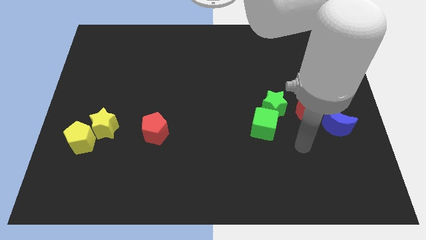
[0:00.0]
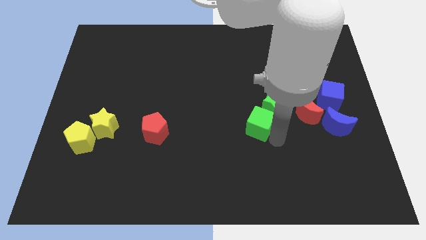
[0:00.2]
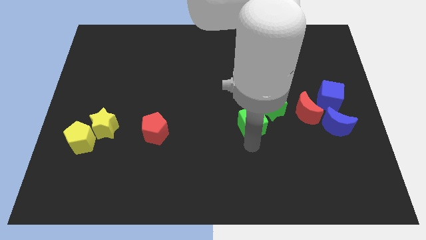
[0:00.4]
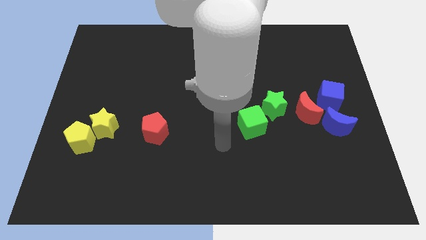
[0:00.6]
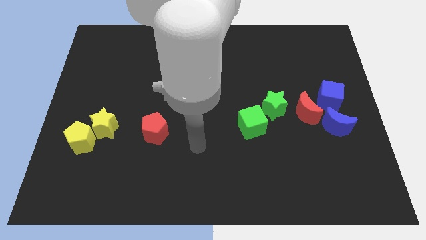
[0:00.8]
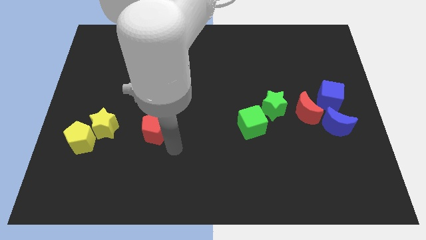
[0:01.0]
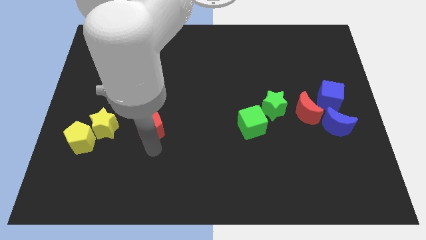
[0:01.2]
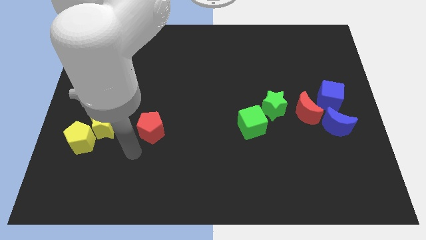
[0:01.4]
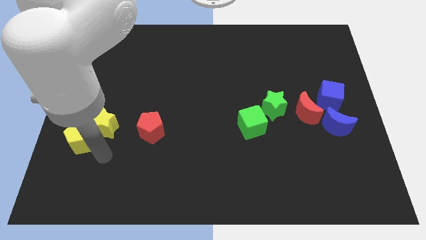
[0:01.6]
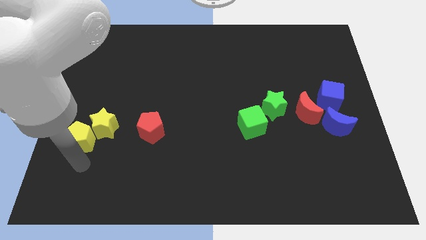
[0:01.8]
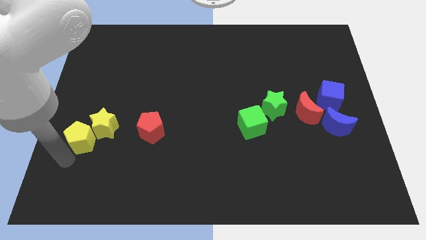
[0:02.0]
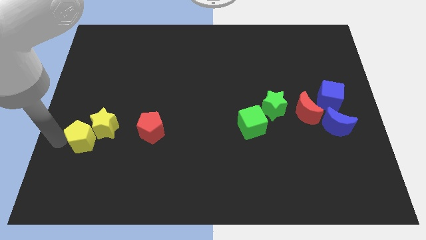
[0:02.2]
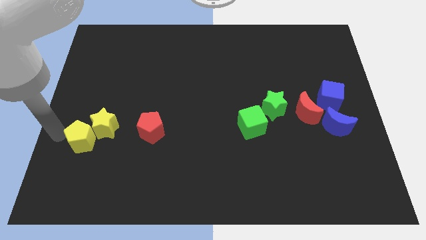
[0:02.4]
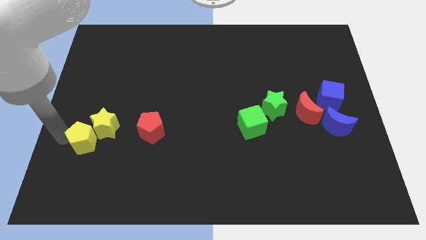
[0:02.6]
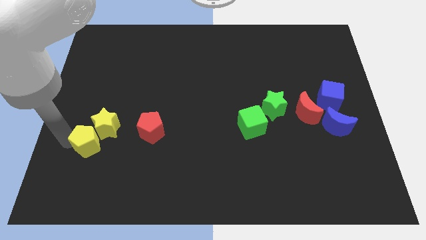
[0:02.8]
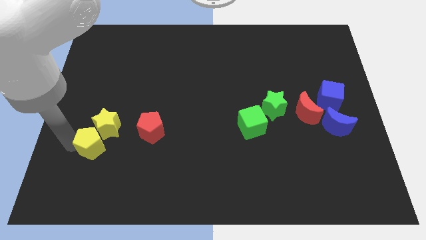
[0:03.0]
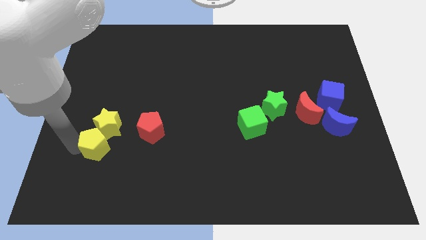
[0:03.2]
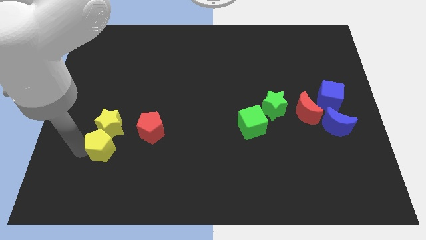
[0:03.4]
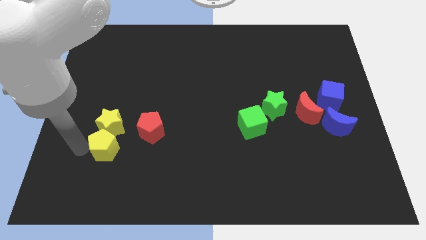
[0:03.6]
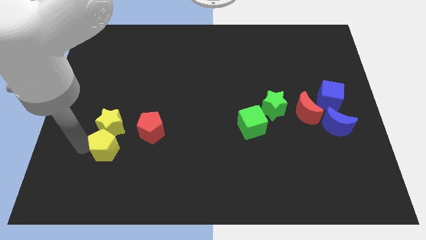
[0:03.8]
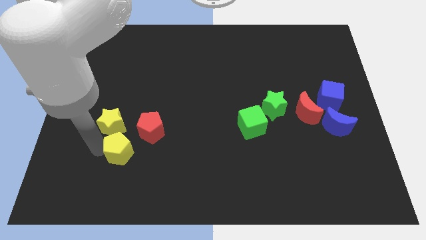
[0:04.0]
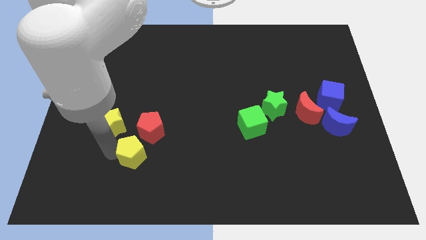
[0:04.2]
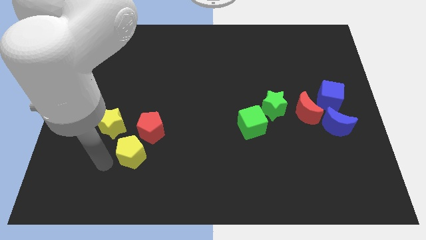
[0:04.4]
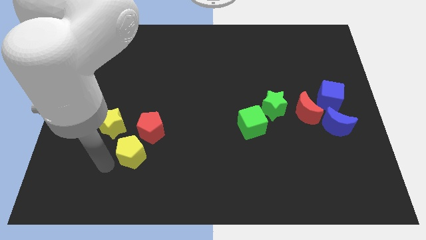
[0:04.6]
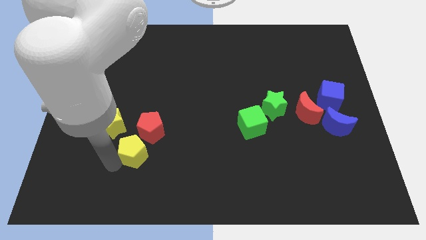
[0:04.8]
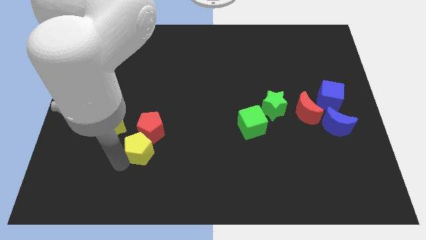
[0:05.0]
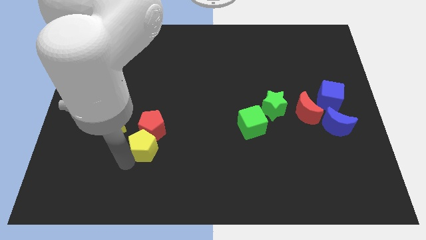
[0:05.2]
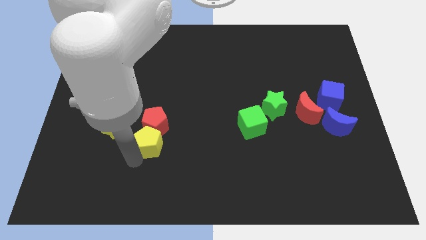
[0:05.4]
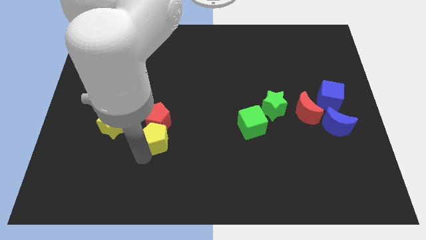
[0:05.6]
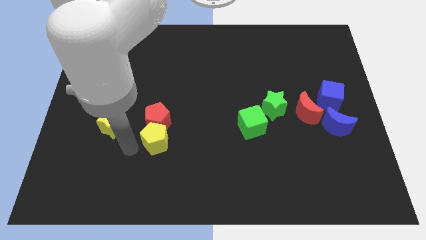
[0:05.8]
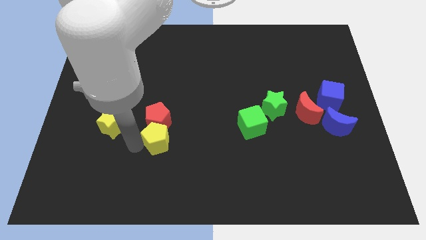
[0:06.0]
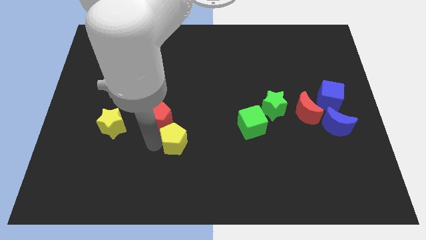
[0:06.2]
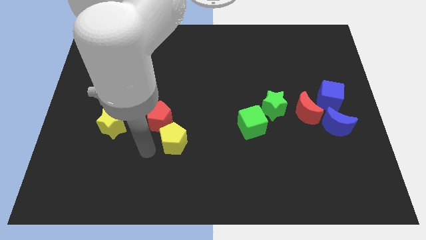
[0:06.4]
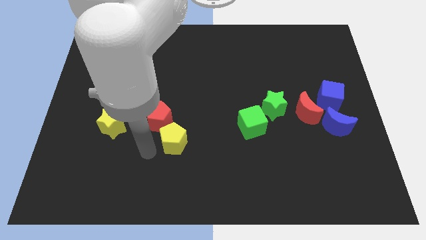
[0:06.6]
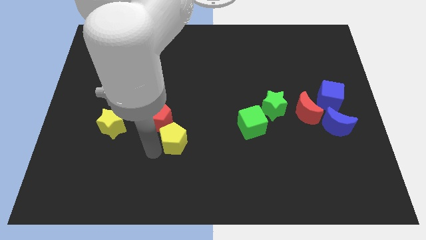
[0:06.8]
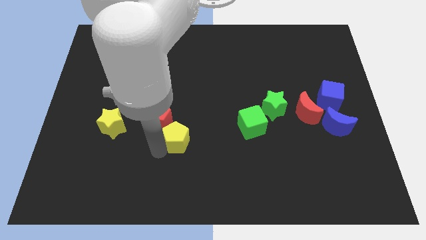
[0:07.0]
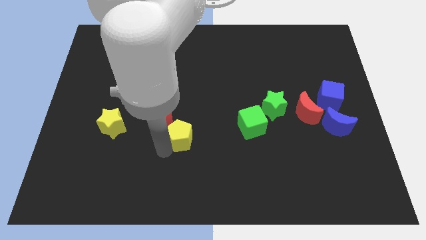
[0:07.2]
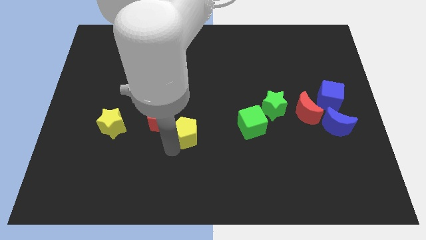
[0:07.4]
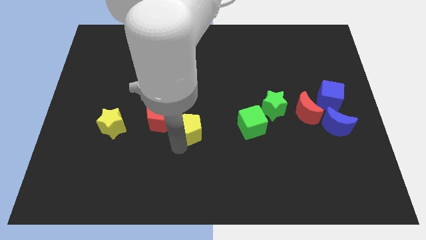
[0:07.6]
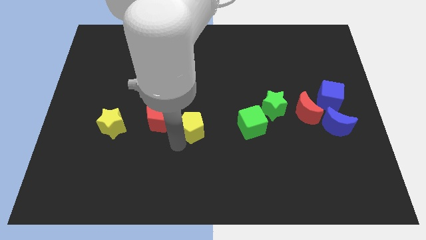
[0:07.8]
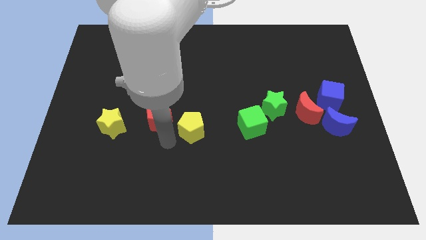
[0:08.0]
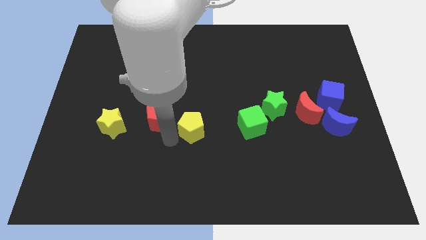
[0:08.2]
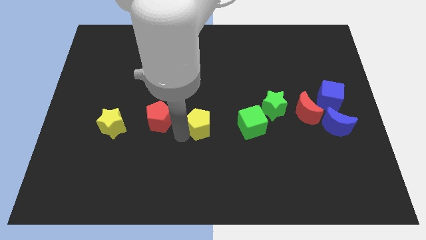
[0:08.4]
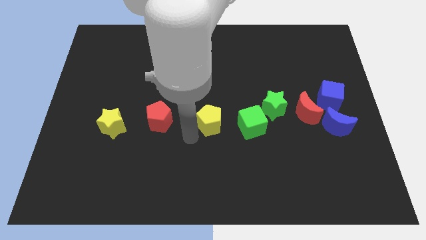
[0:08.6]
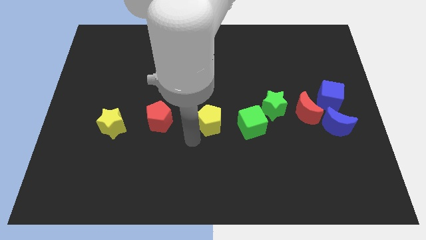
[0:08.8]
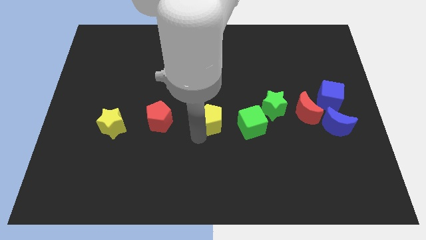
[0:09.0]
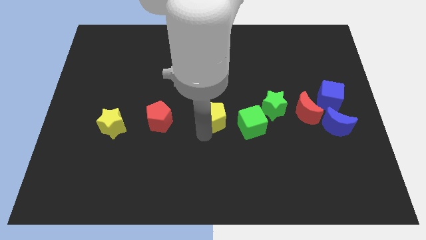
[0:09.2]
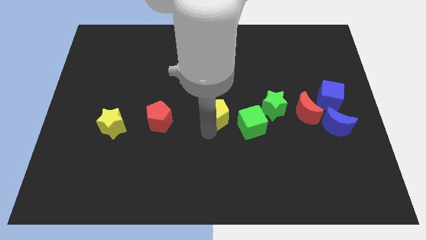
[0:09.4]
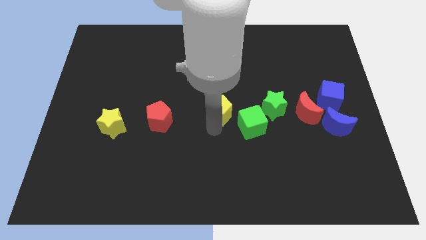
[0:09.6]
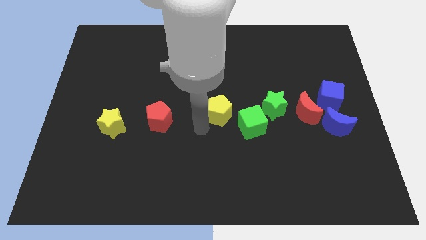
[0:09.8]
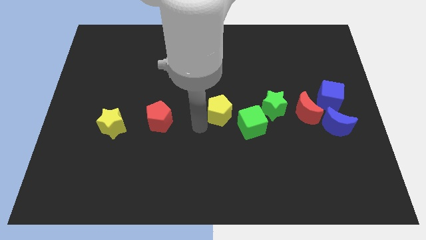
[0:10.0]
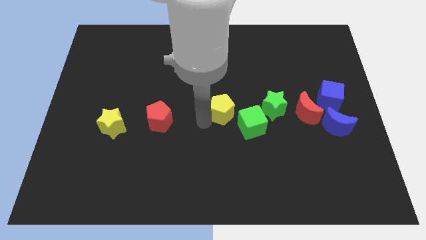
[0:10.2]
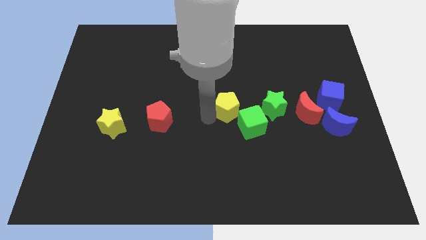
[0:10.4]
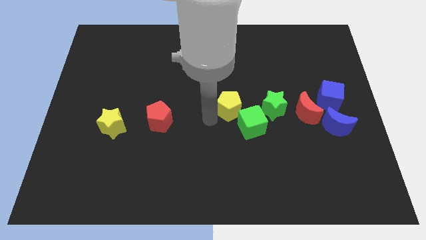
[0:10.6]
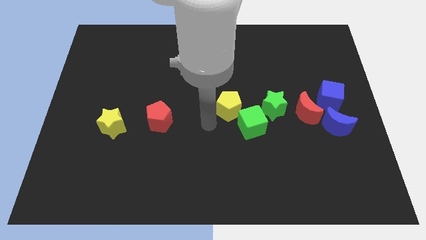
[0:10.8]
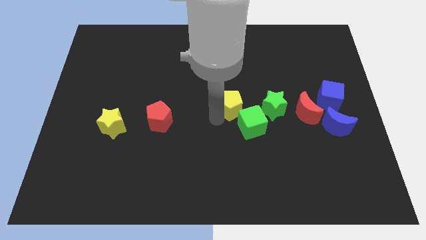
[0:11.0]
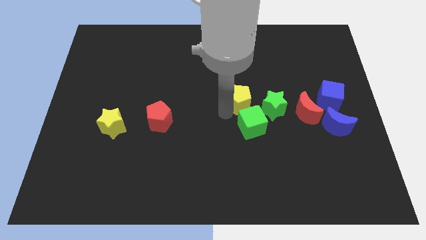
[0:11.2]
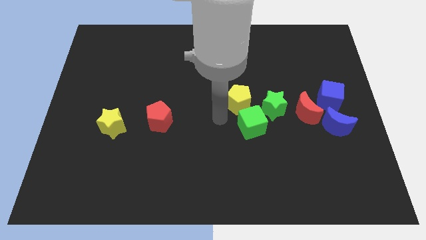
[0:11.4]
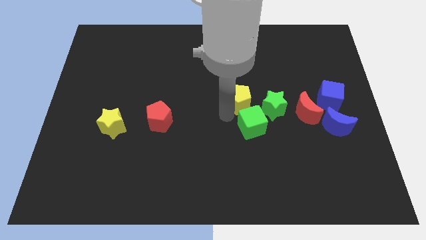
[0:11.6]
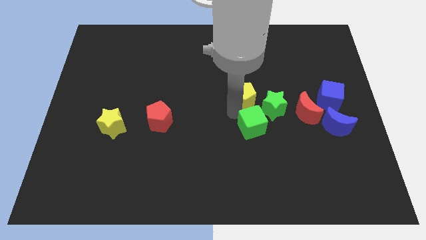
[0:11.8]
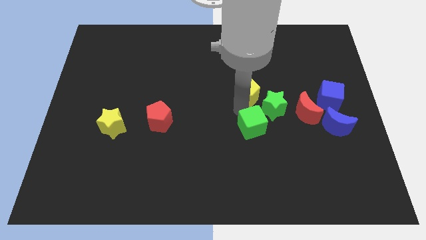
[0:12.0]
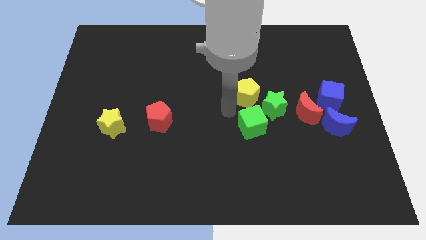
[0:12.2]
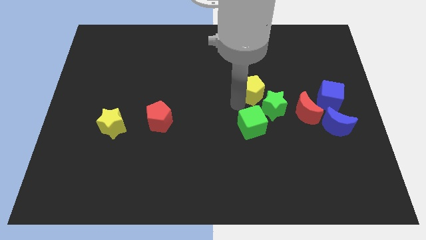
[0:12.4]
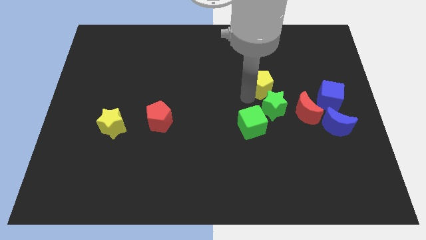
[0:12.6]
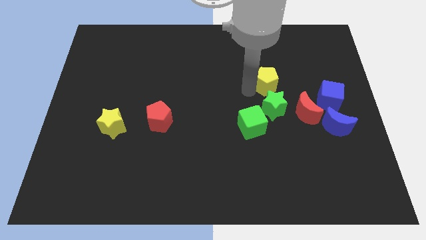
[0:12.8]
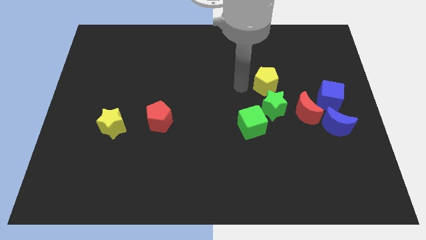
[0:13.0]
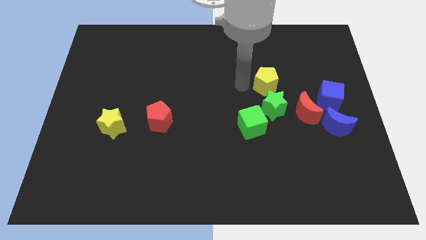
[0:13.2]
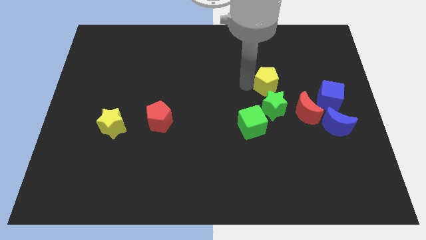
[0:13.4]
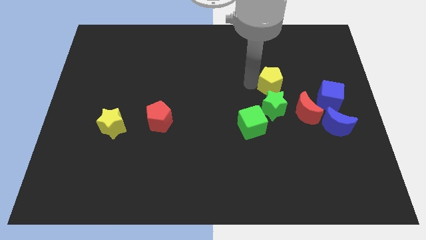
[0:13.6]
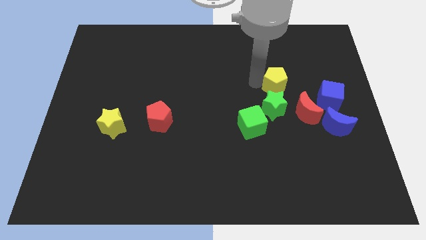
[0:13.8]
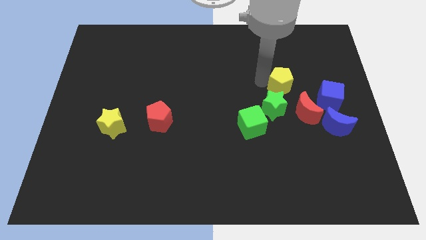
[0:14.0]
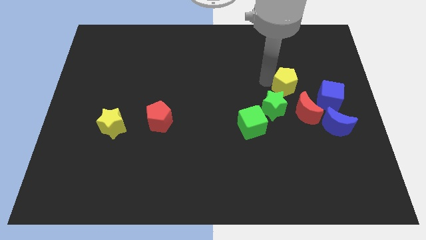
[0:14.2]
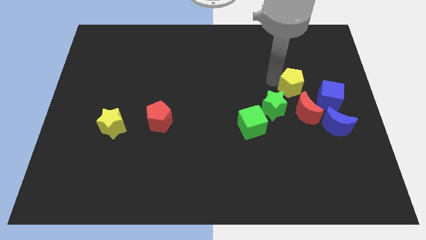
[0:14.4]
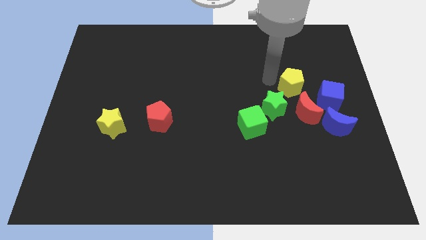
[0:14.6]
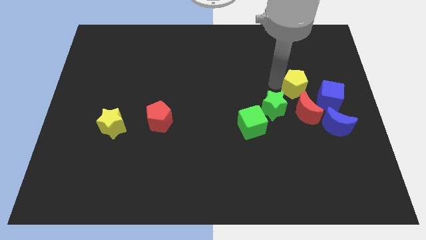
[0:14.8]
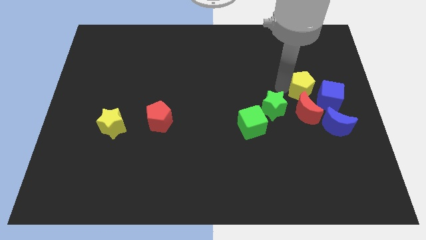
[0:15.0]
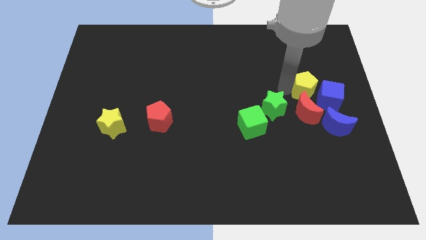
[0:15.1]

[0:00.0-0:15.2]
slide the yellow pentagon towards the blue cube
